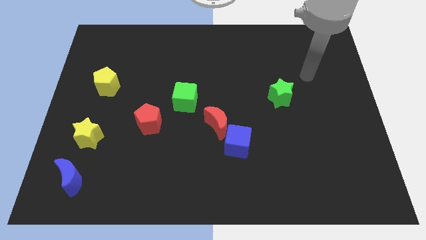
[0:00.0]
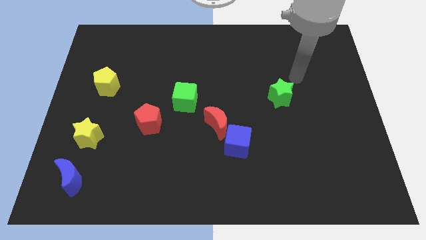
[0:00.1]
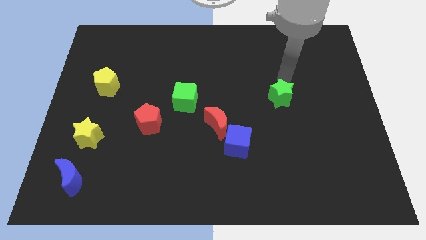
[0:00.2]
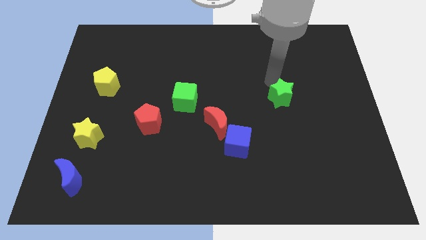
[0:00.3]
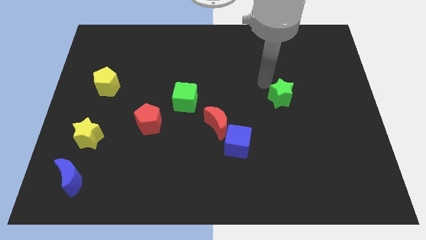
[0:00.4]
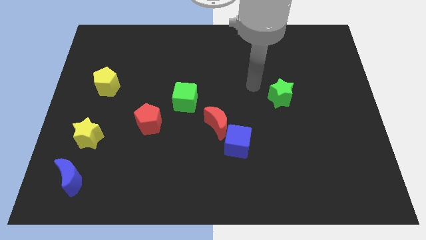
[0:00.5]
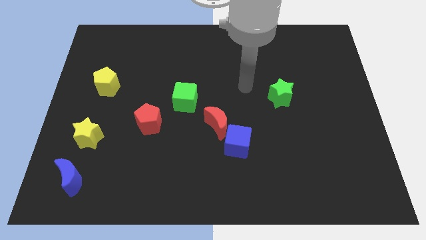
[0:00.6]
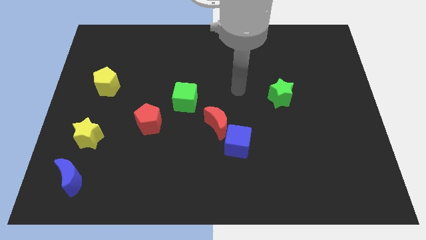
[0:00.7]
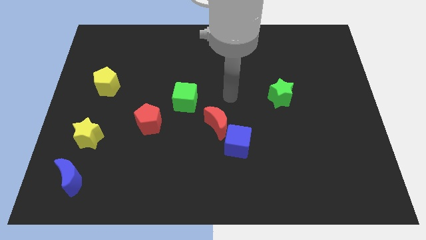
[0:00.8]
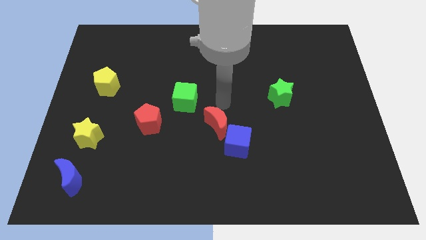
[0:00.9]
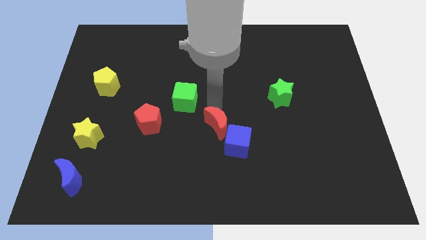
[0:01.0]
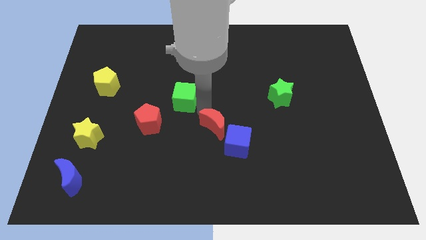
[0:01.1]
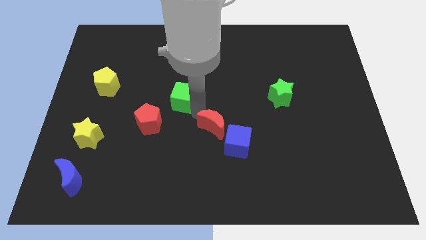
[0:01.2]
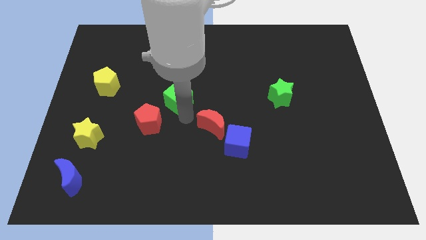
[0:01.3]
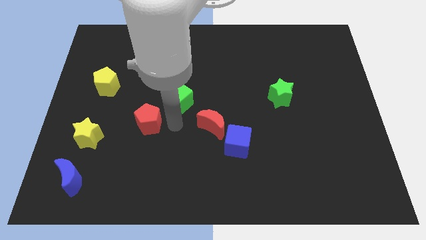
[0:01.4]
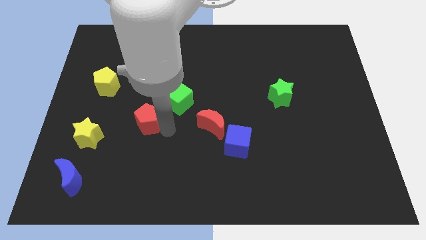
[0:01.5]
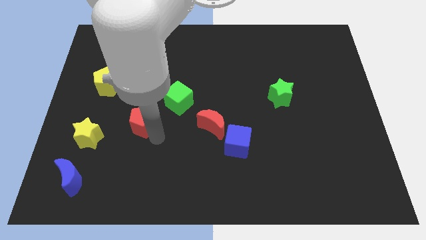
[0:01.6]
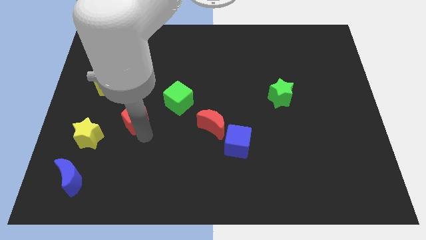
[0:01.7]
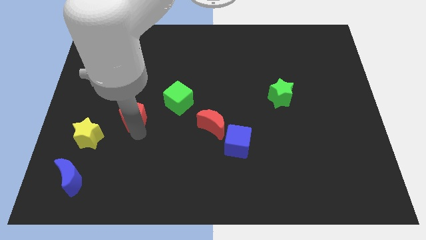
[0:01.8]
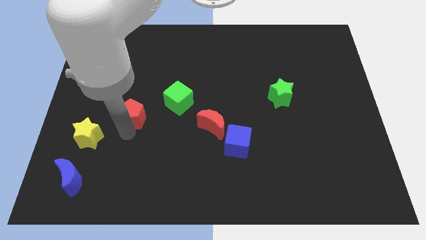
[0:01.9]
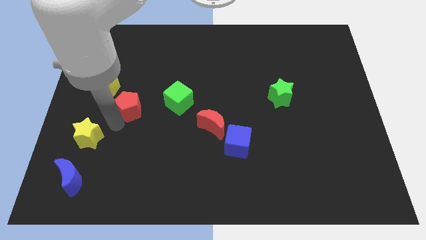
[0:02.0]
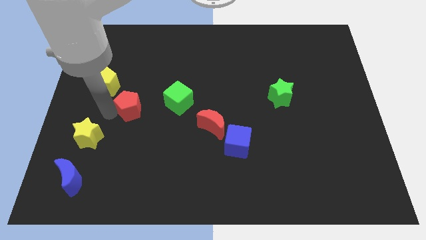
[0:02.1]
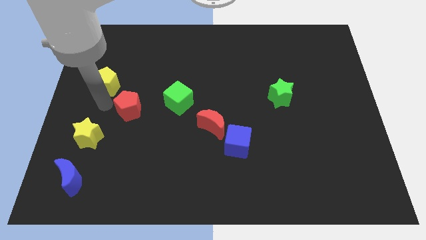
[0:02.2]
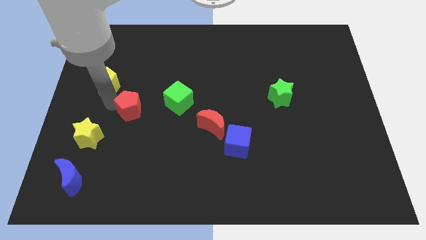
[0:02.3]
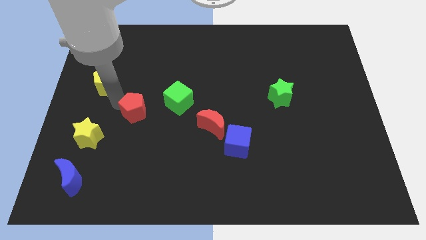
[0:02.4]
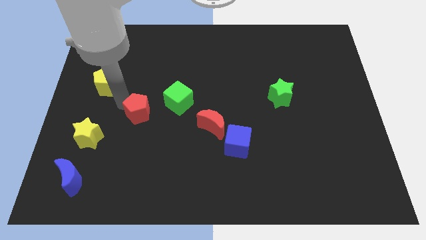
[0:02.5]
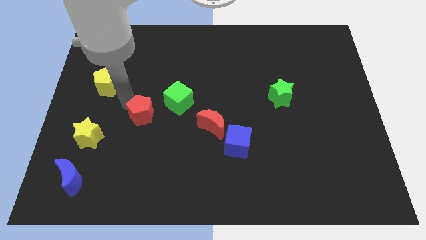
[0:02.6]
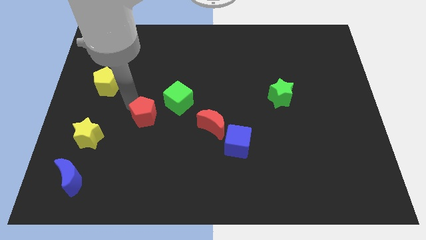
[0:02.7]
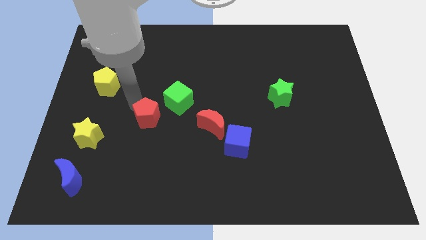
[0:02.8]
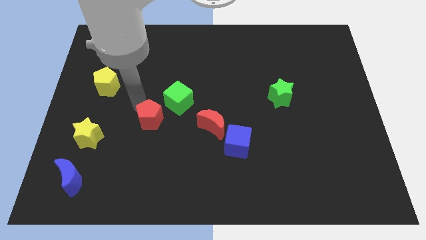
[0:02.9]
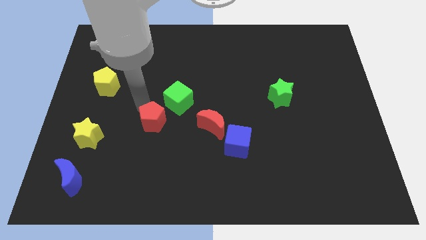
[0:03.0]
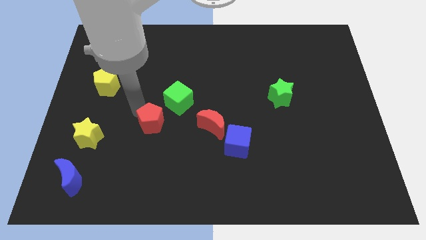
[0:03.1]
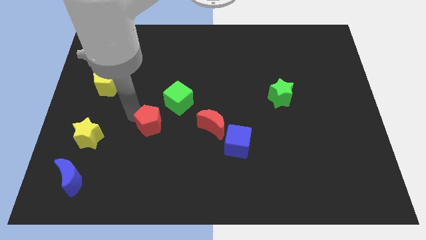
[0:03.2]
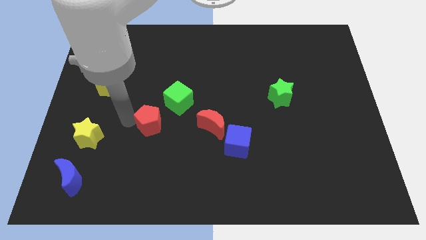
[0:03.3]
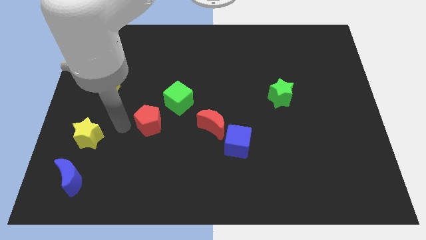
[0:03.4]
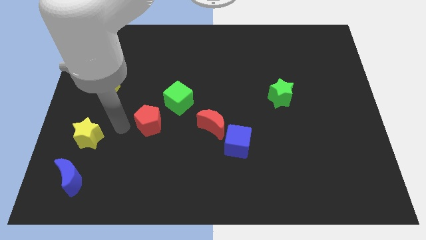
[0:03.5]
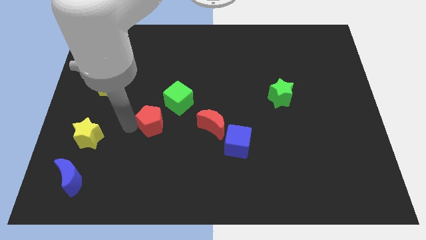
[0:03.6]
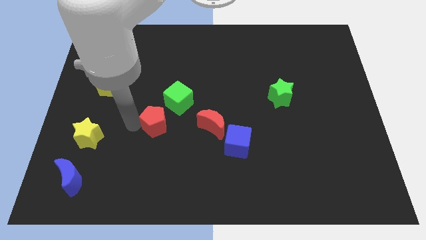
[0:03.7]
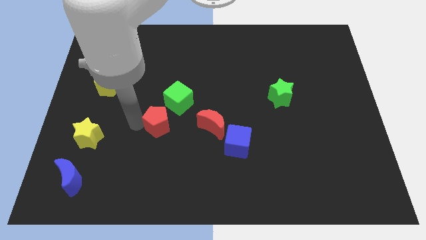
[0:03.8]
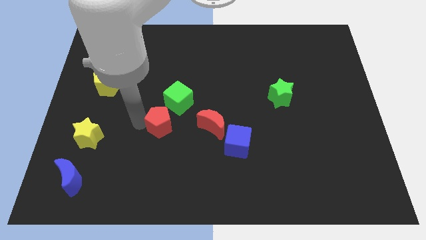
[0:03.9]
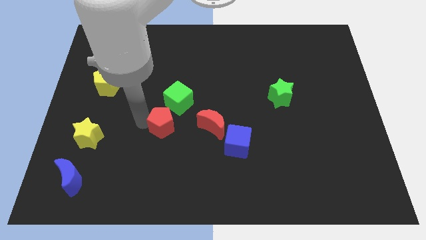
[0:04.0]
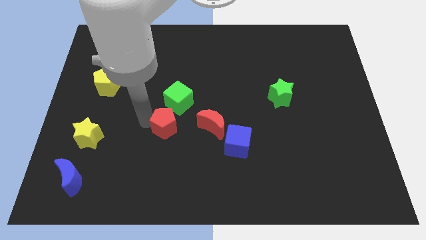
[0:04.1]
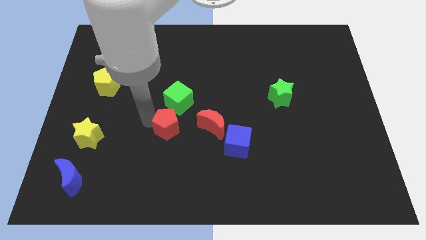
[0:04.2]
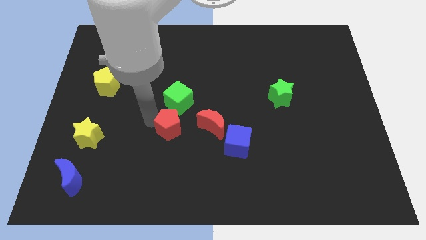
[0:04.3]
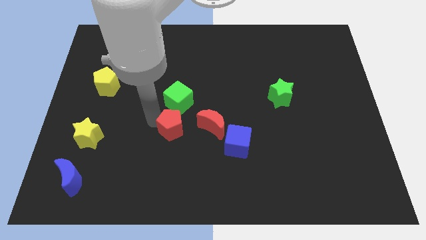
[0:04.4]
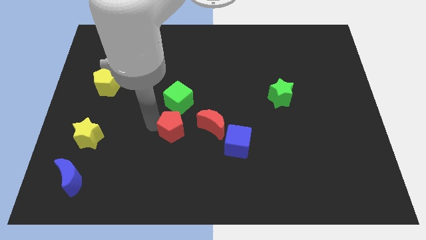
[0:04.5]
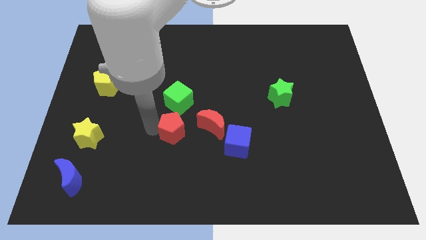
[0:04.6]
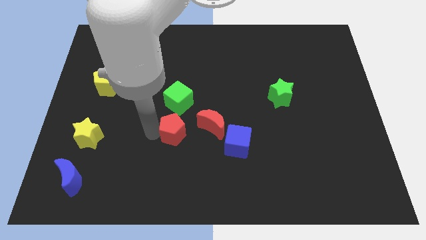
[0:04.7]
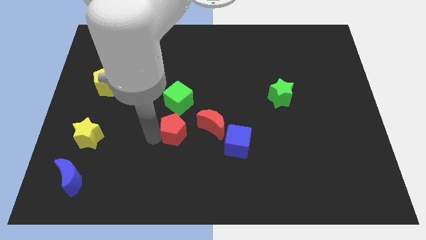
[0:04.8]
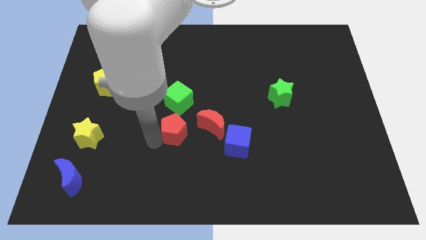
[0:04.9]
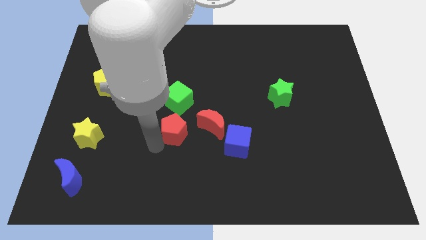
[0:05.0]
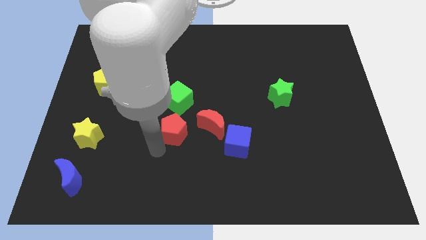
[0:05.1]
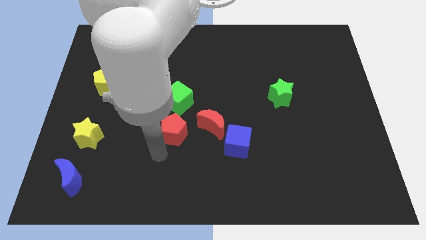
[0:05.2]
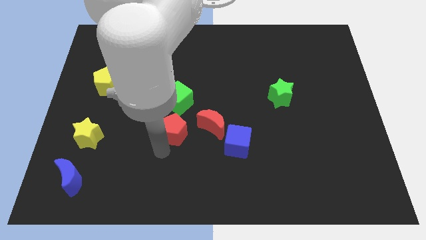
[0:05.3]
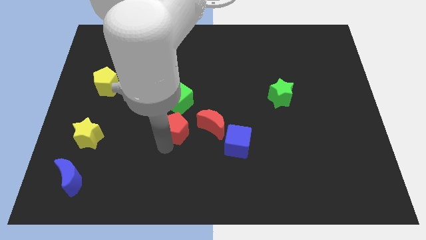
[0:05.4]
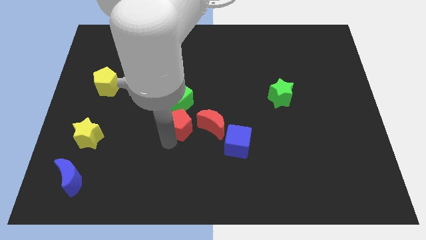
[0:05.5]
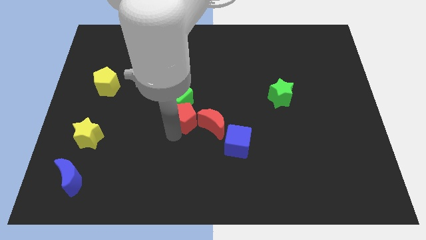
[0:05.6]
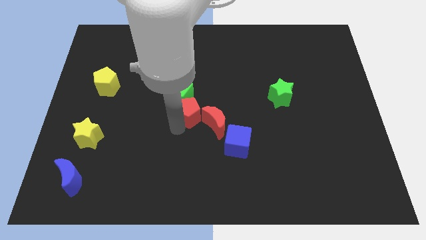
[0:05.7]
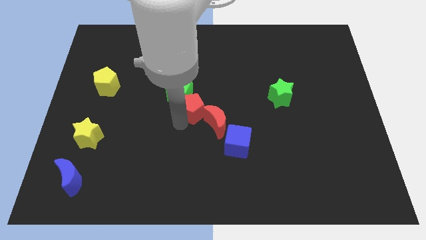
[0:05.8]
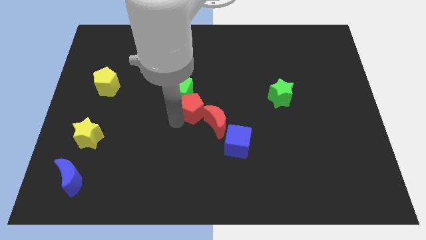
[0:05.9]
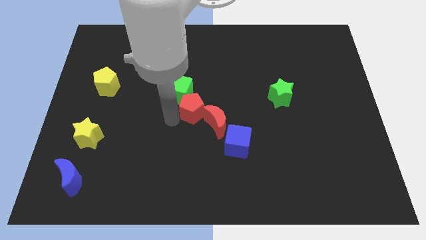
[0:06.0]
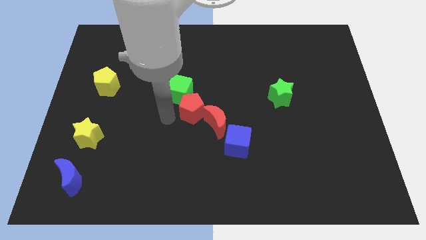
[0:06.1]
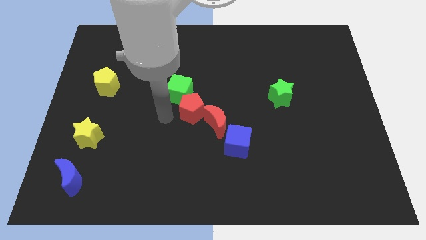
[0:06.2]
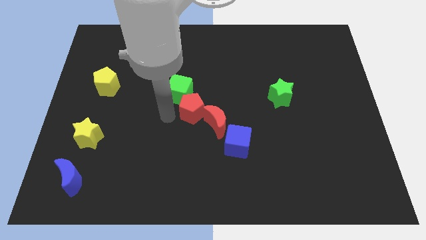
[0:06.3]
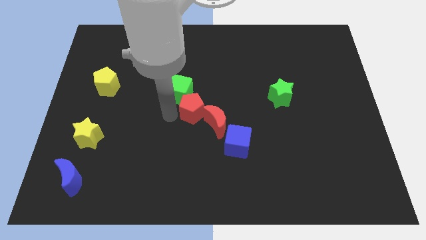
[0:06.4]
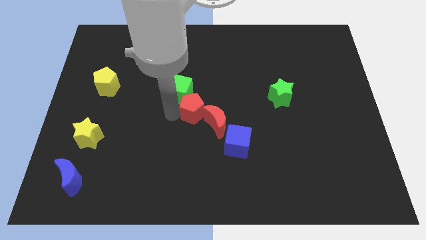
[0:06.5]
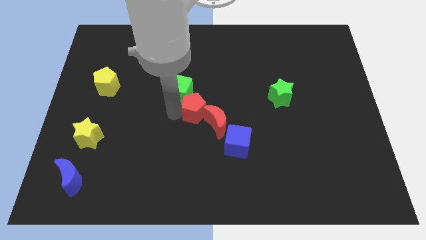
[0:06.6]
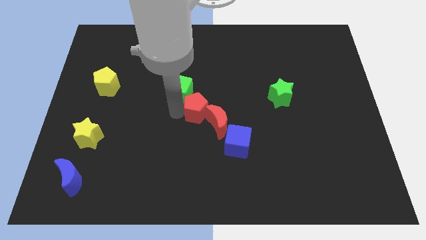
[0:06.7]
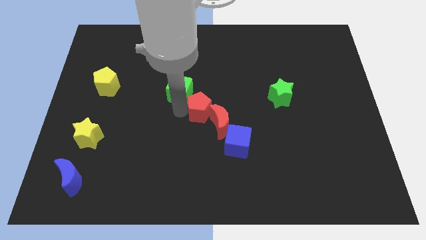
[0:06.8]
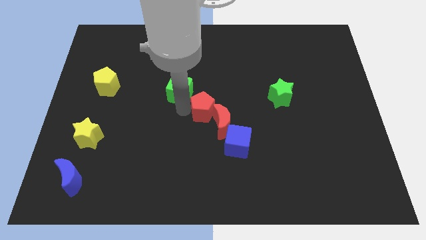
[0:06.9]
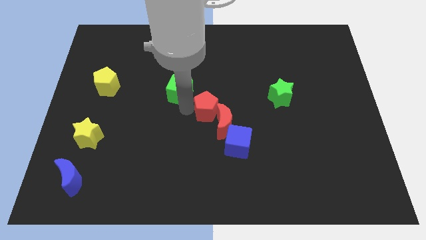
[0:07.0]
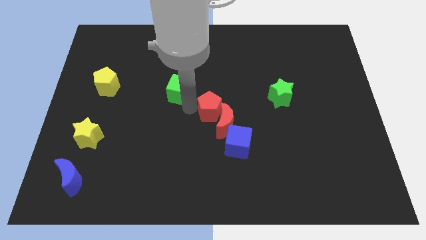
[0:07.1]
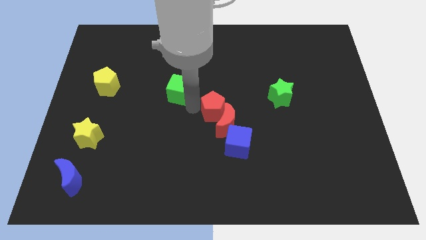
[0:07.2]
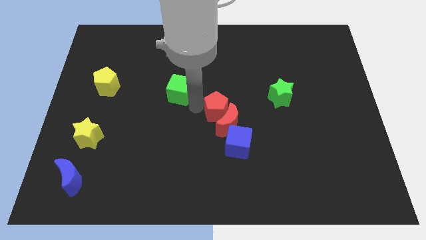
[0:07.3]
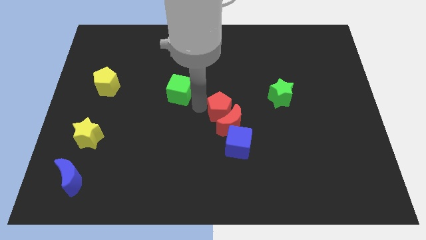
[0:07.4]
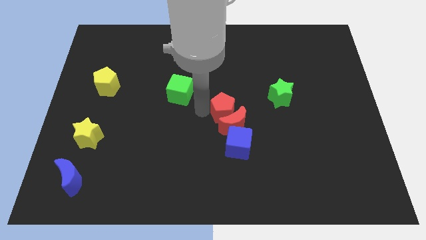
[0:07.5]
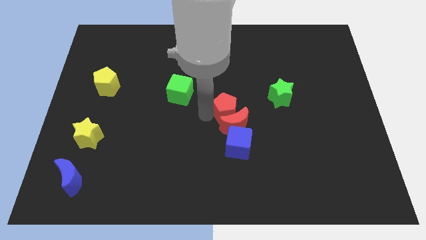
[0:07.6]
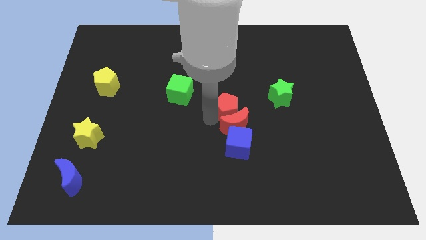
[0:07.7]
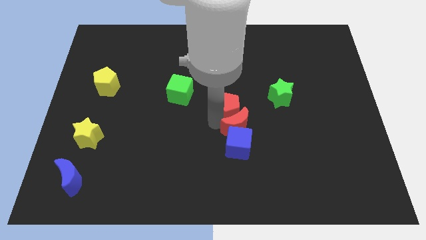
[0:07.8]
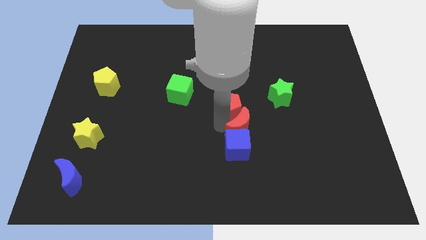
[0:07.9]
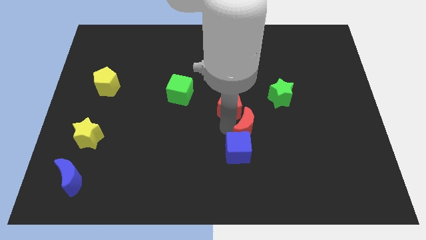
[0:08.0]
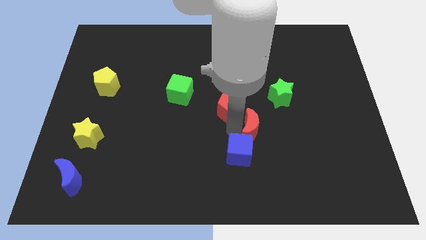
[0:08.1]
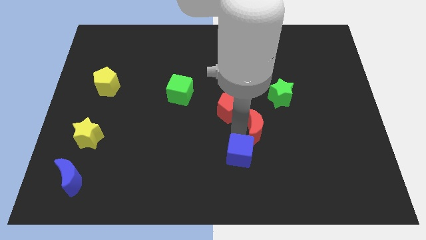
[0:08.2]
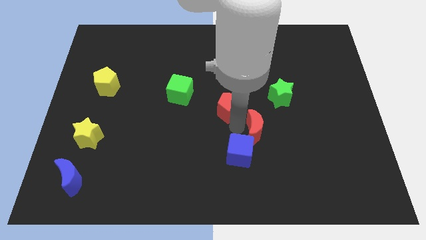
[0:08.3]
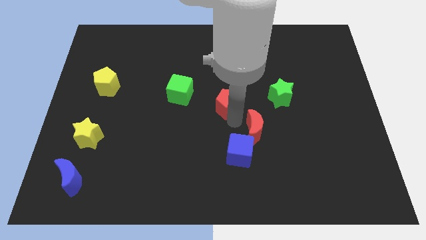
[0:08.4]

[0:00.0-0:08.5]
move the red pentagon to the right side of the green cube
